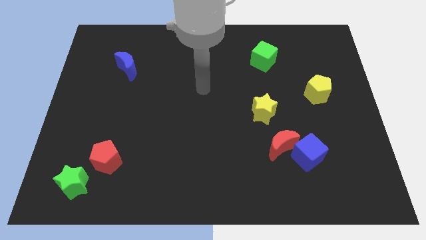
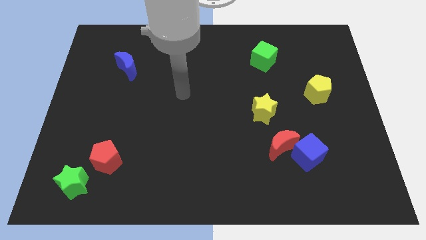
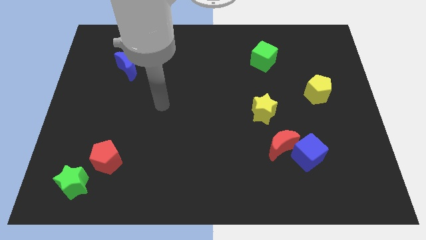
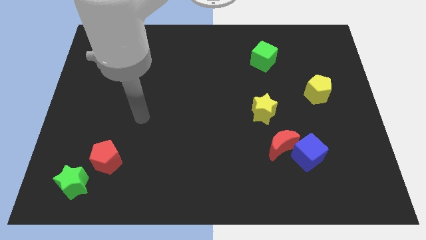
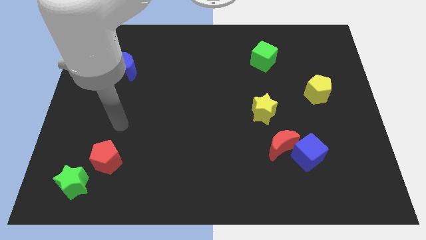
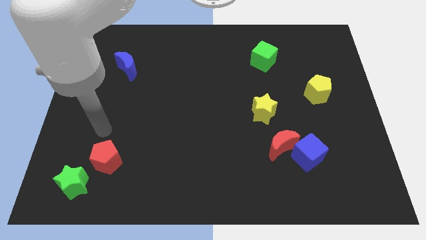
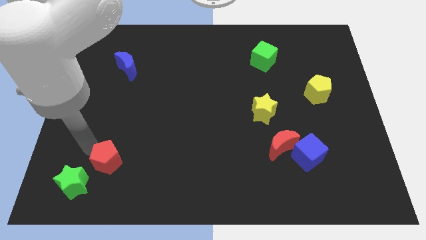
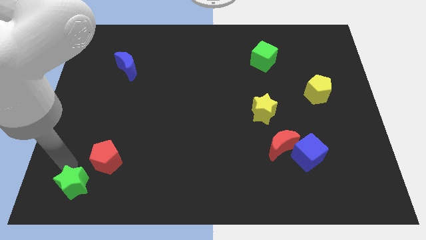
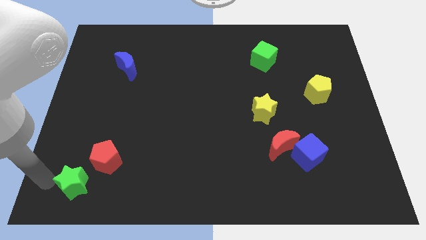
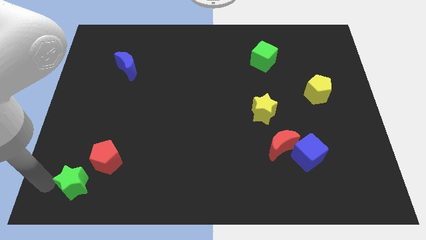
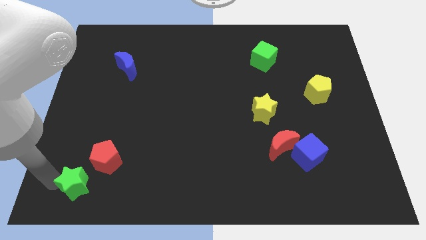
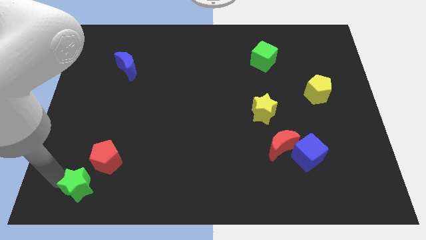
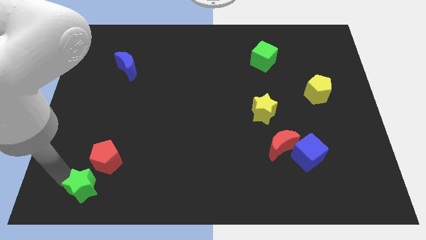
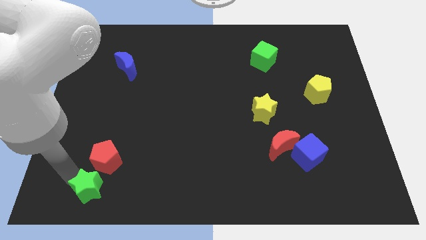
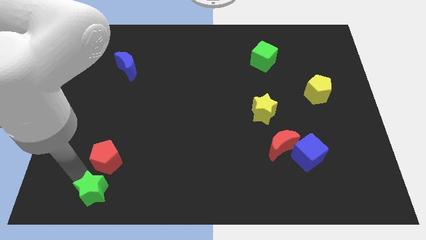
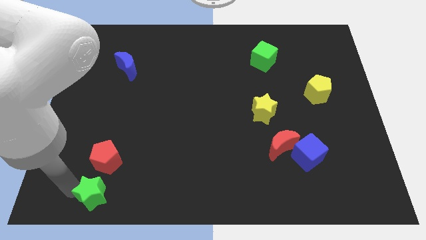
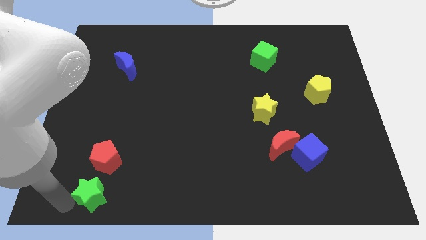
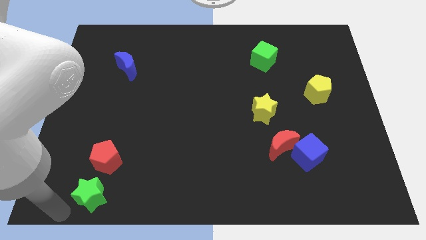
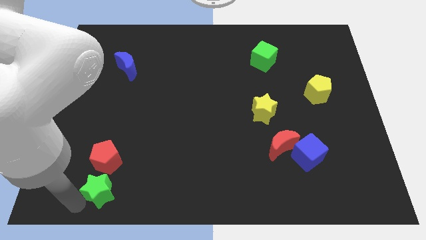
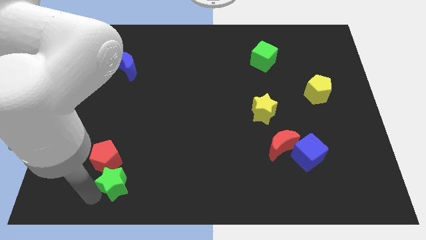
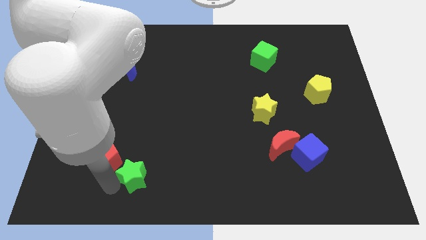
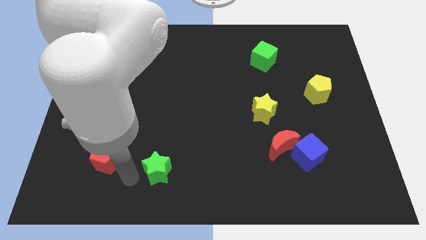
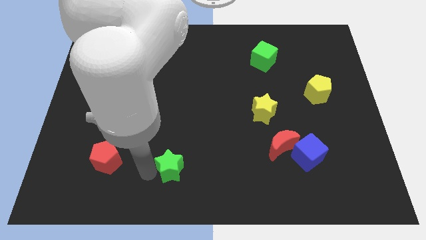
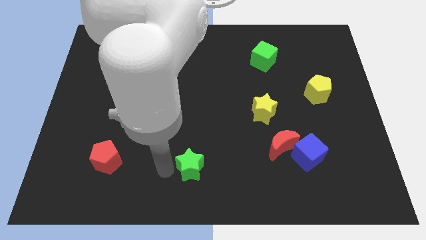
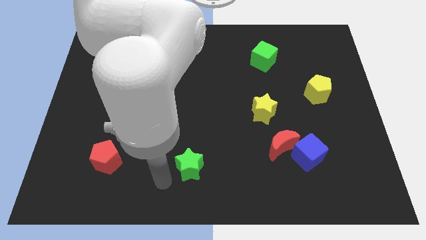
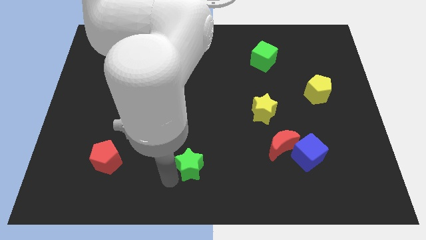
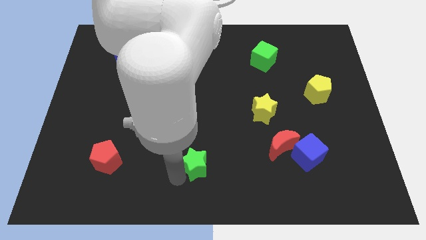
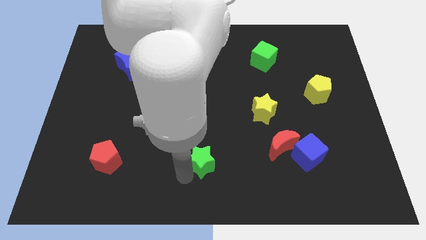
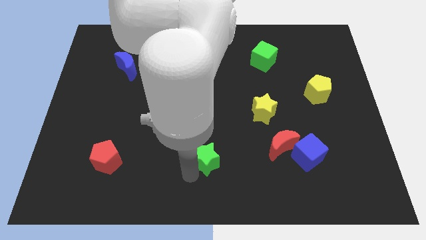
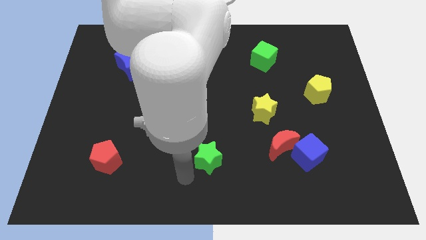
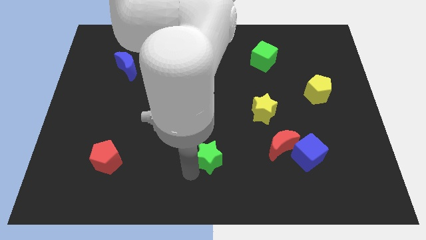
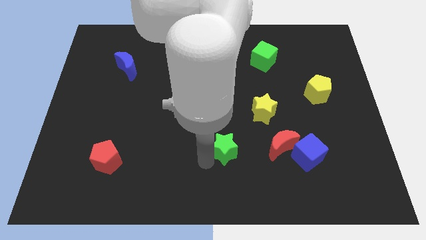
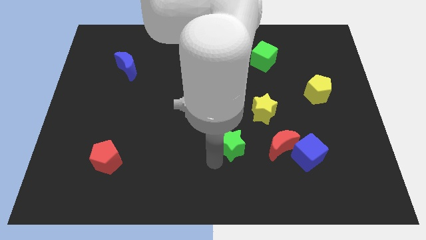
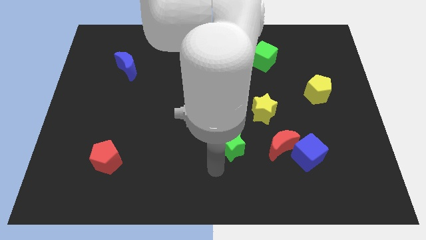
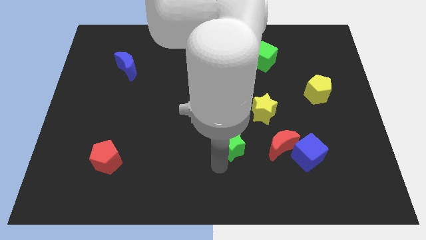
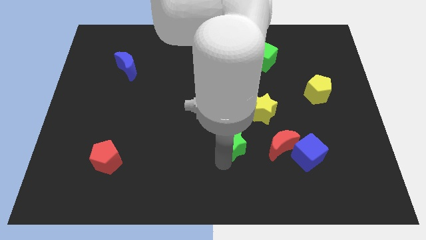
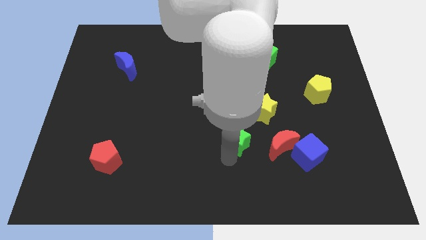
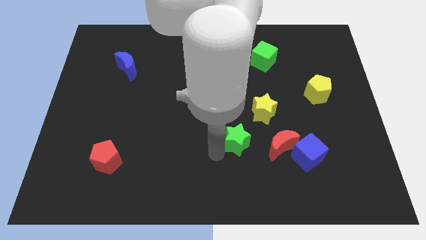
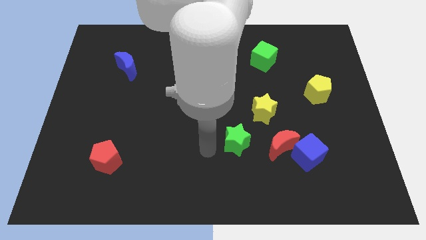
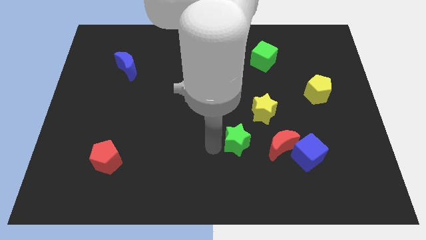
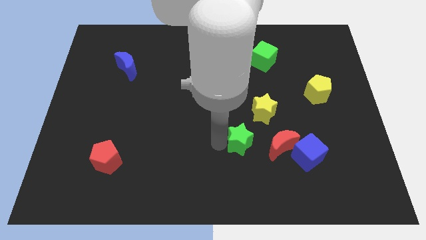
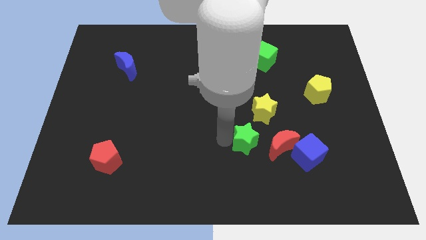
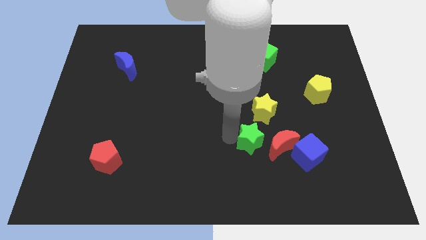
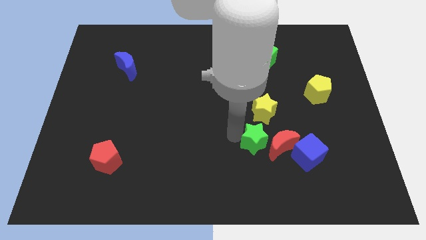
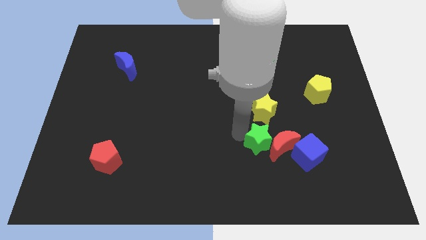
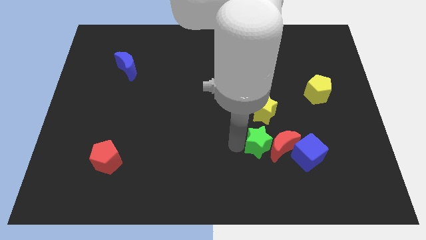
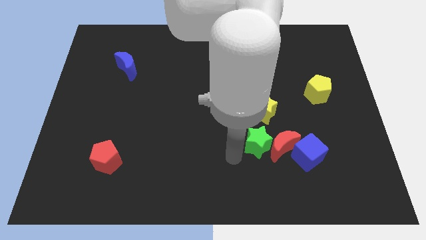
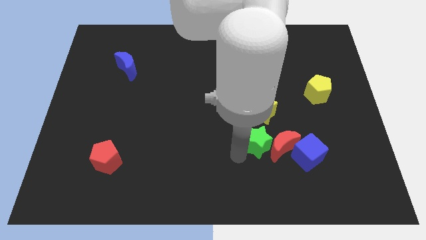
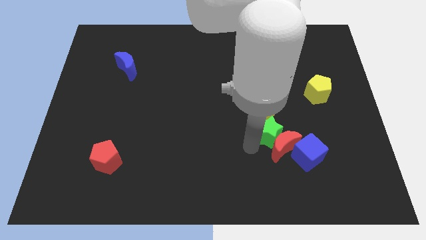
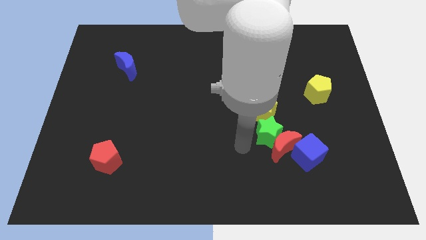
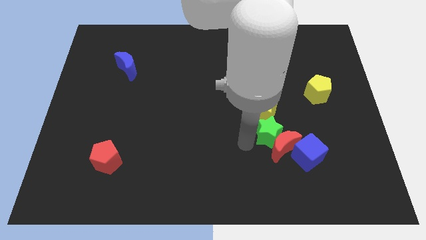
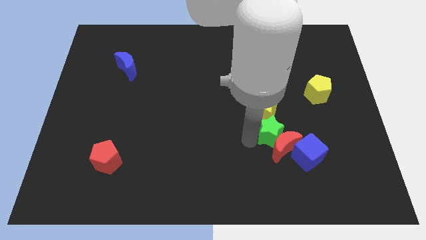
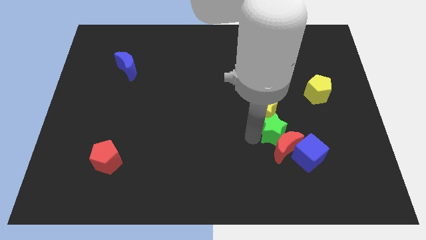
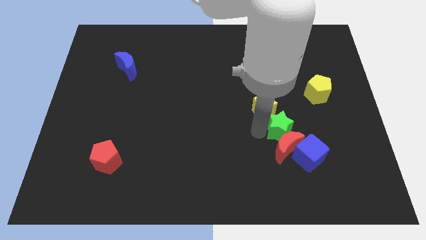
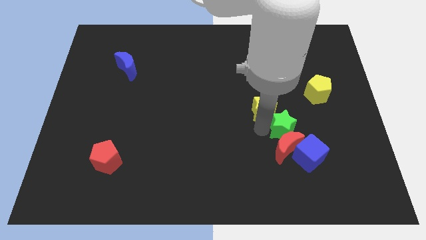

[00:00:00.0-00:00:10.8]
push the green star to the right of the yellow star

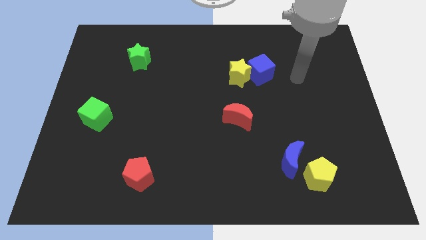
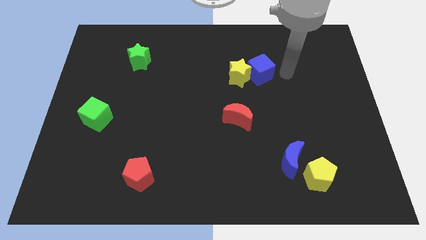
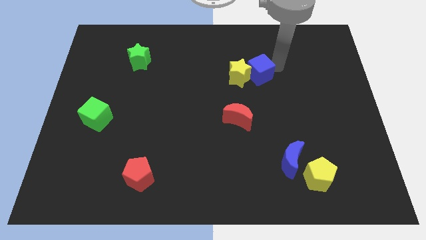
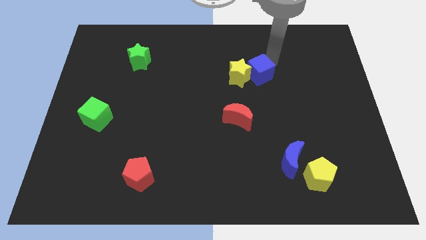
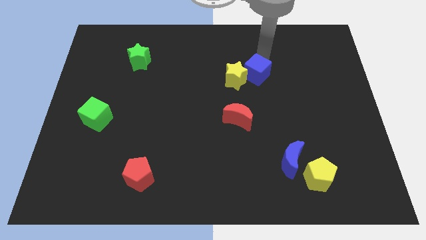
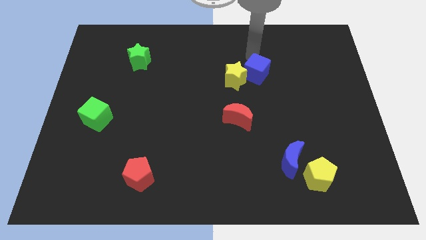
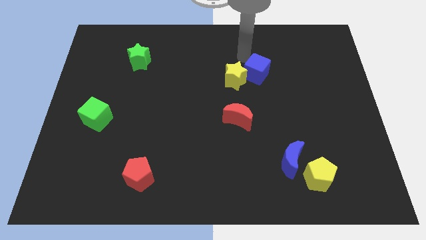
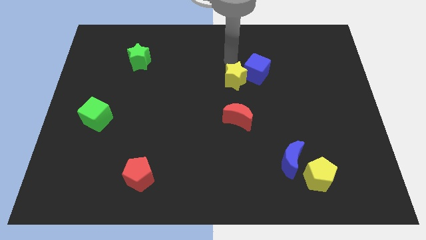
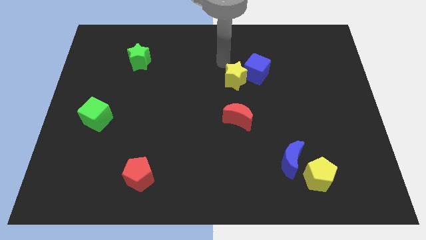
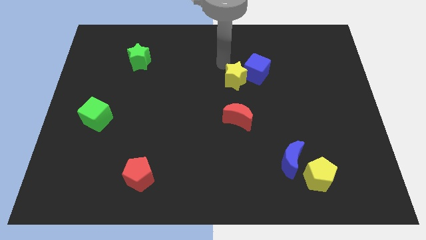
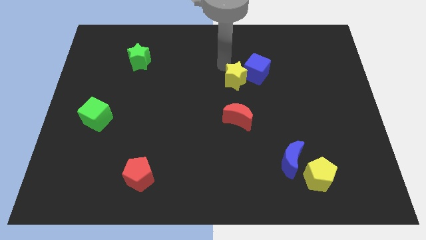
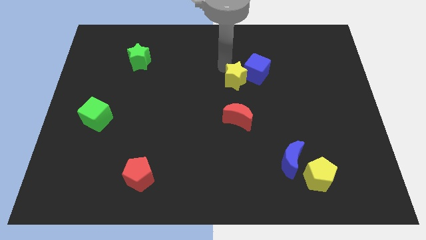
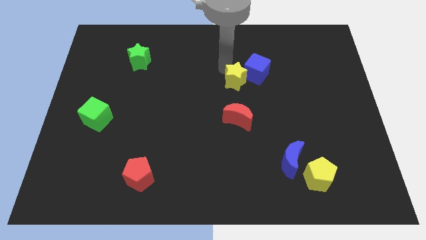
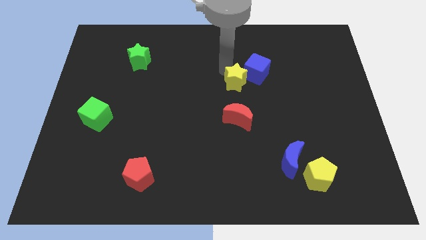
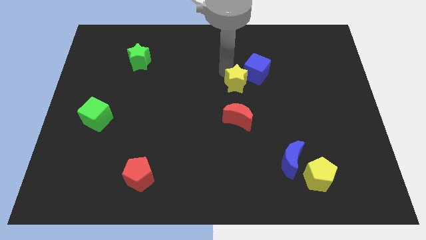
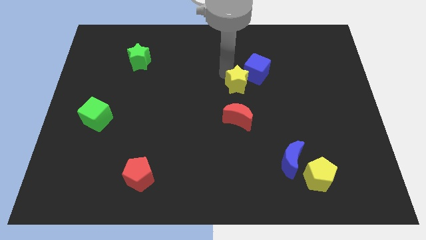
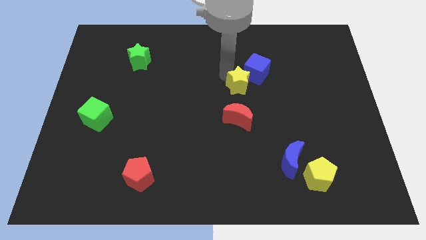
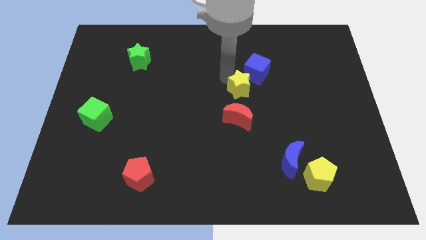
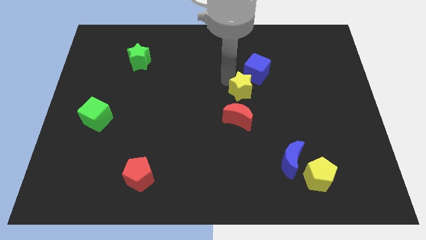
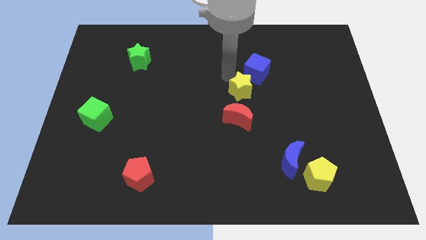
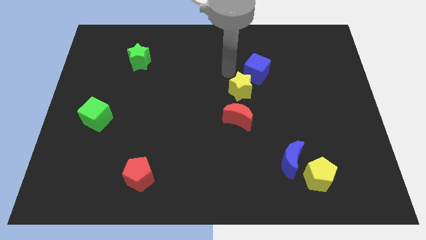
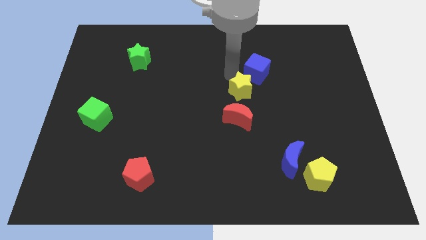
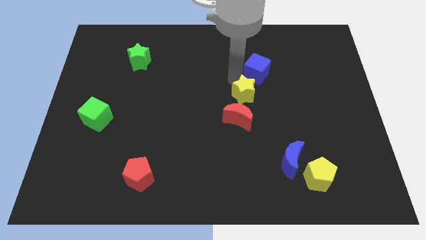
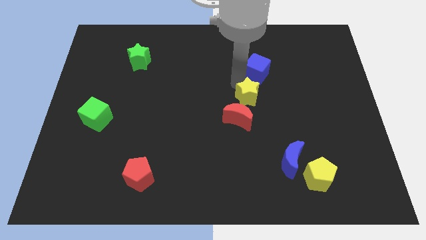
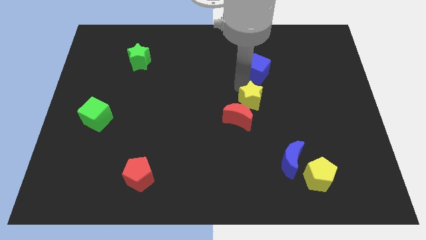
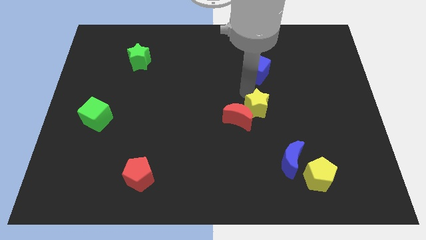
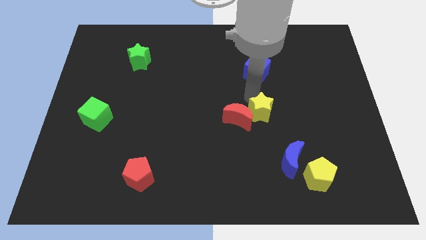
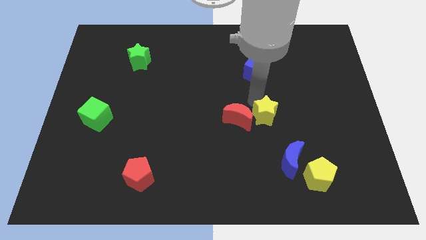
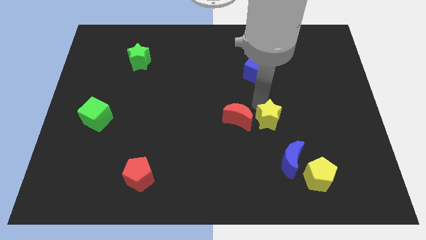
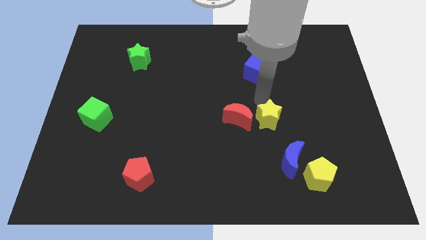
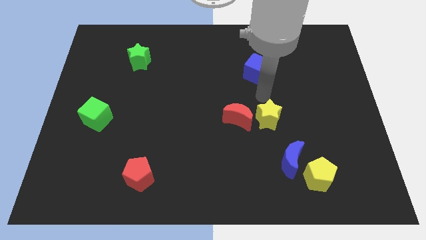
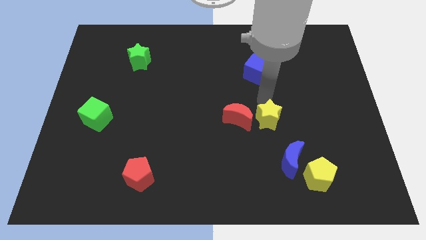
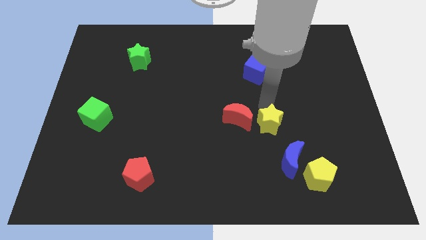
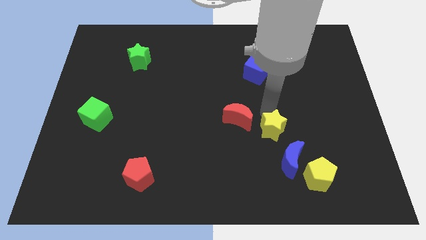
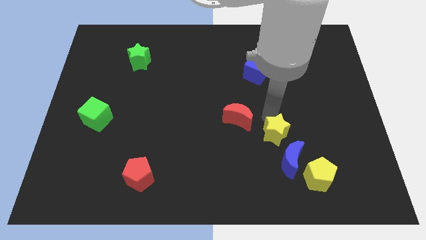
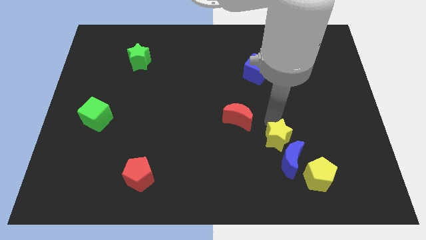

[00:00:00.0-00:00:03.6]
put the yellow star to the top left side of the yellow pentagon
